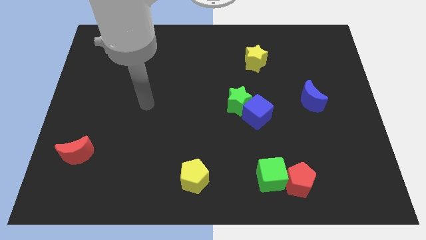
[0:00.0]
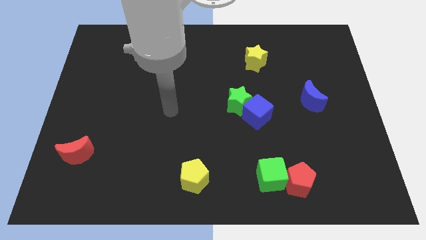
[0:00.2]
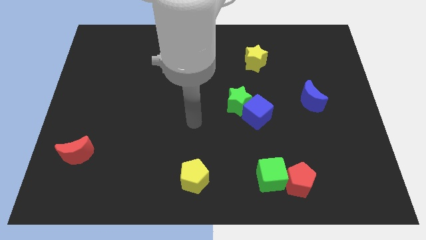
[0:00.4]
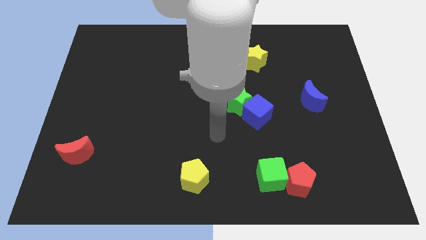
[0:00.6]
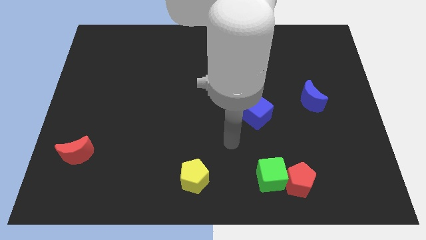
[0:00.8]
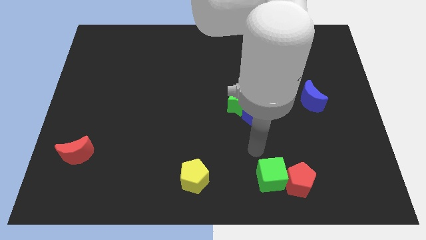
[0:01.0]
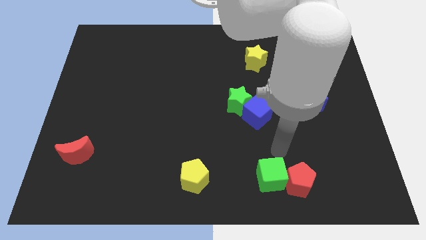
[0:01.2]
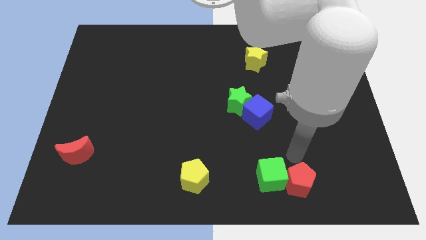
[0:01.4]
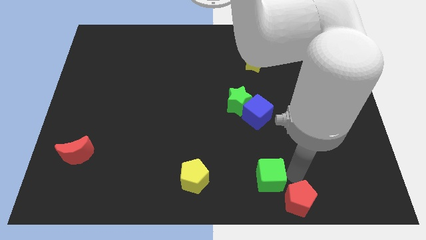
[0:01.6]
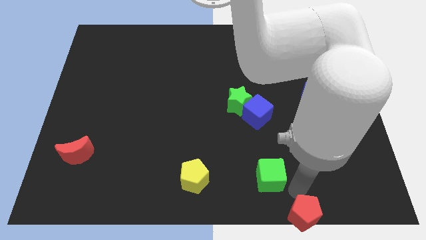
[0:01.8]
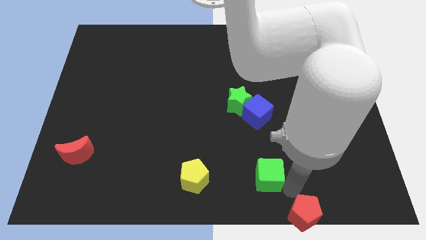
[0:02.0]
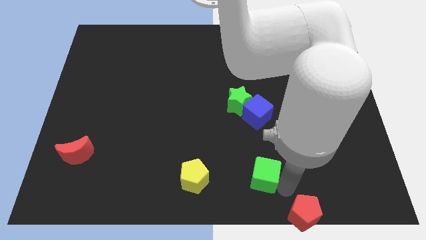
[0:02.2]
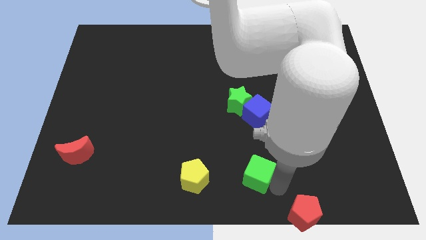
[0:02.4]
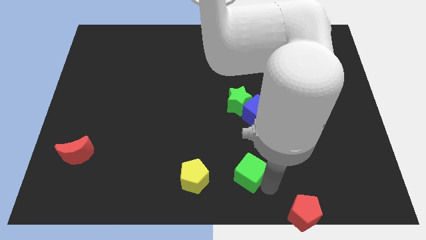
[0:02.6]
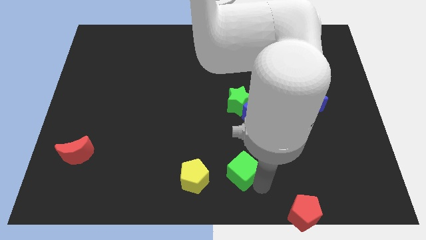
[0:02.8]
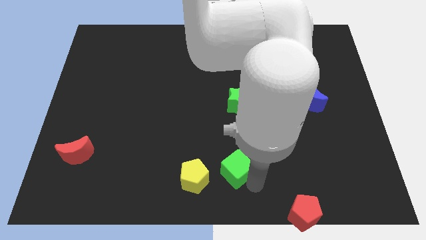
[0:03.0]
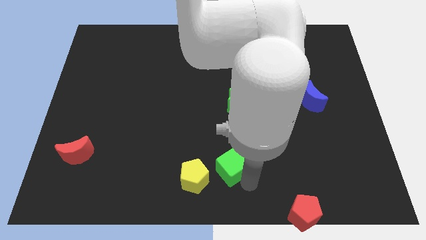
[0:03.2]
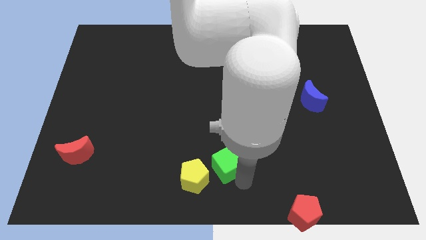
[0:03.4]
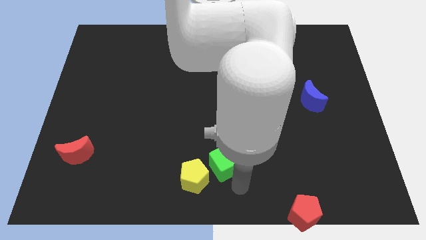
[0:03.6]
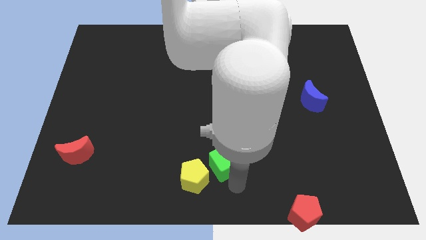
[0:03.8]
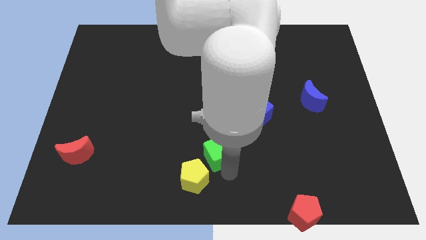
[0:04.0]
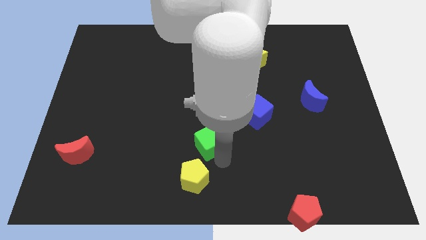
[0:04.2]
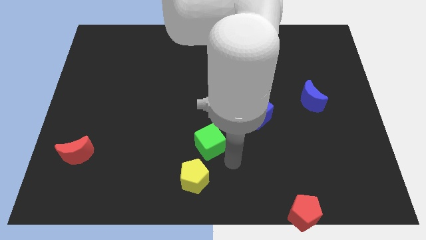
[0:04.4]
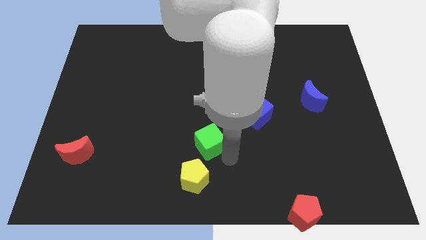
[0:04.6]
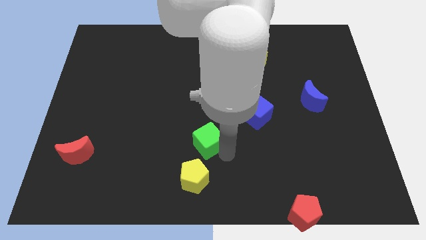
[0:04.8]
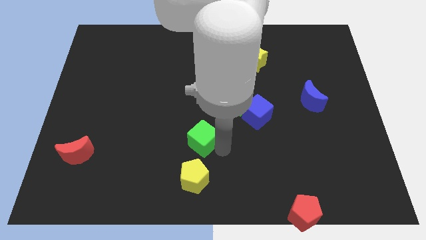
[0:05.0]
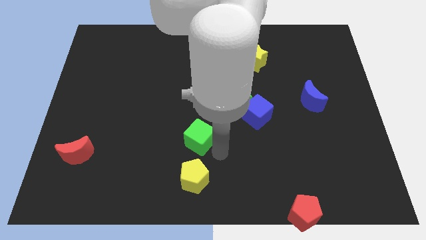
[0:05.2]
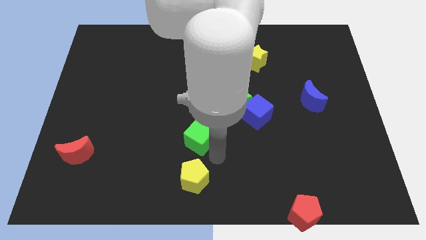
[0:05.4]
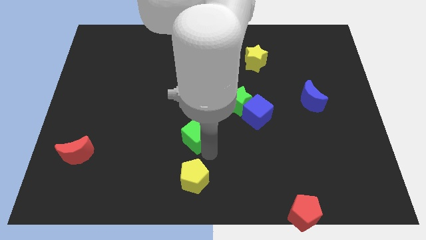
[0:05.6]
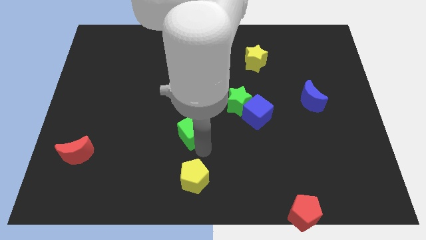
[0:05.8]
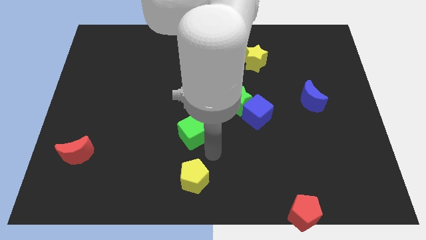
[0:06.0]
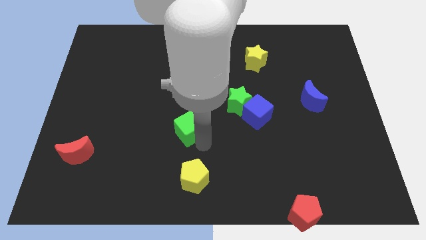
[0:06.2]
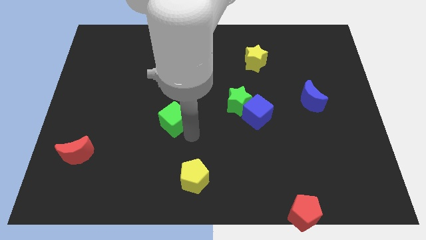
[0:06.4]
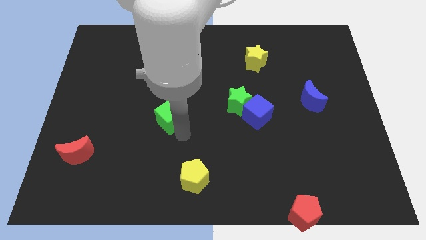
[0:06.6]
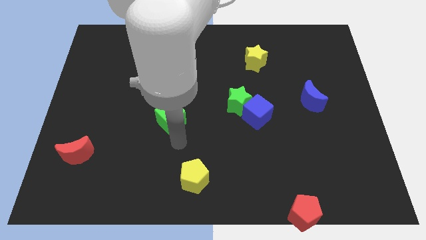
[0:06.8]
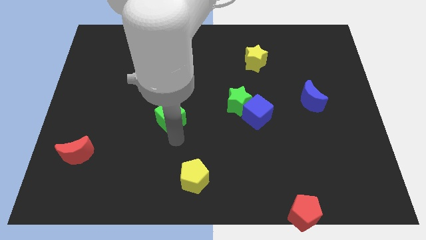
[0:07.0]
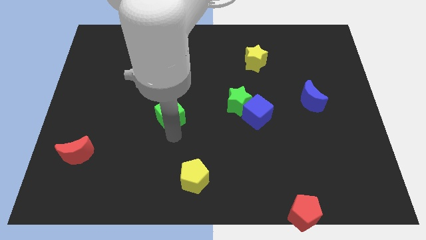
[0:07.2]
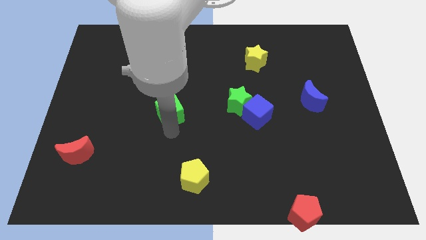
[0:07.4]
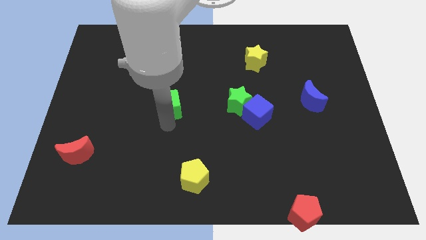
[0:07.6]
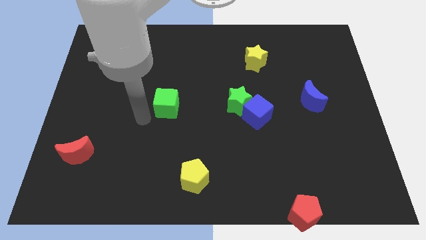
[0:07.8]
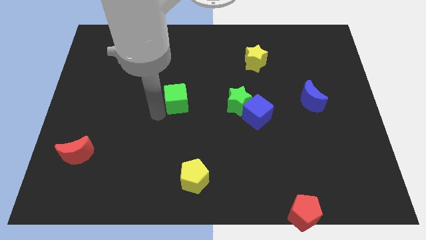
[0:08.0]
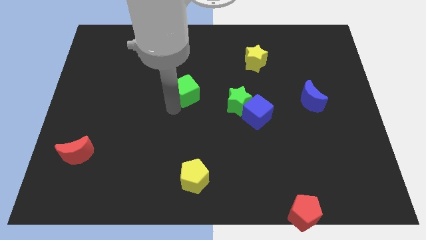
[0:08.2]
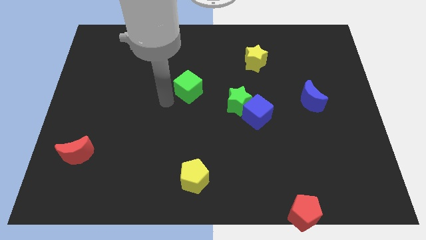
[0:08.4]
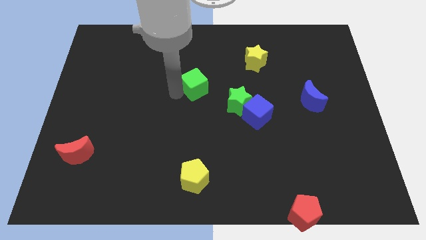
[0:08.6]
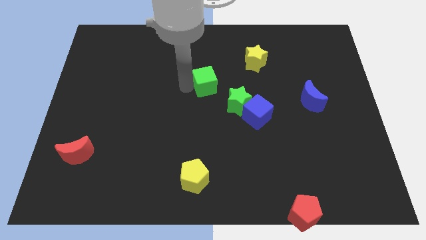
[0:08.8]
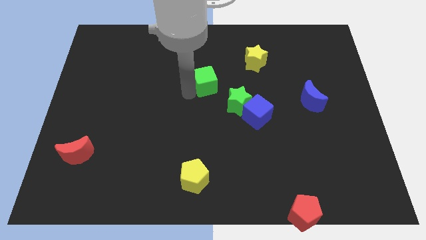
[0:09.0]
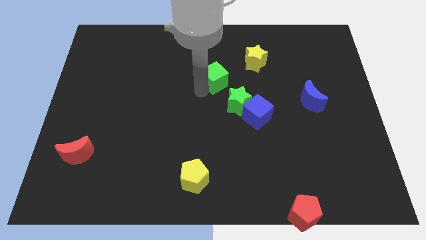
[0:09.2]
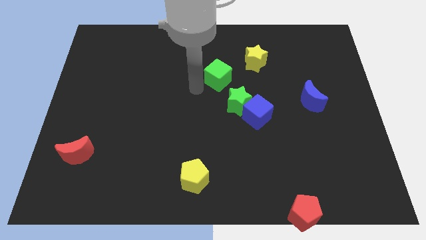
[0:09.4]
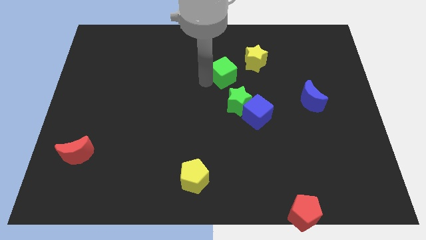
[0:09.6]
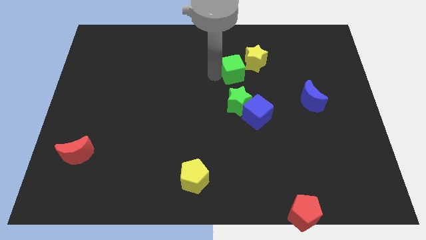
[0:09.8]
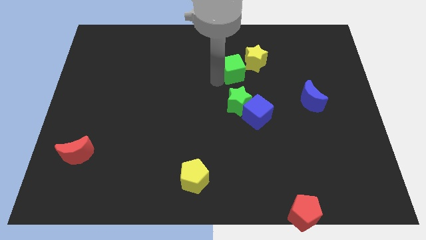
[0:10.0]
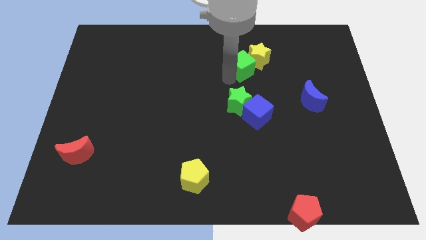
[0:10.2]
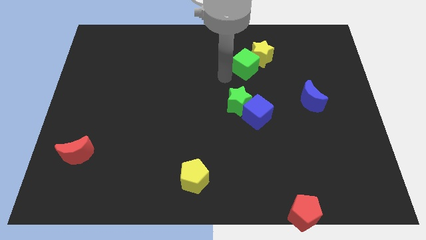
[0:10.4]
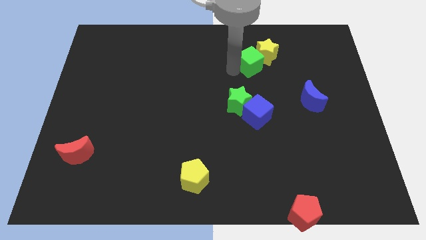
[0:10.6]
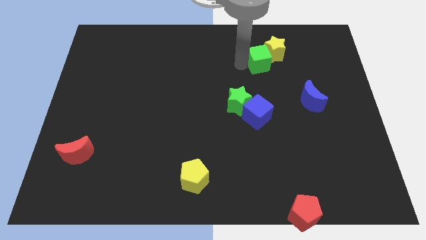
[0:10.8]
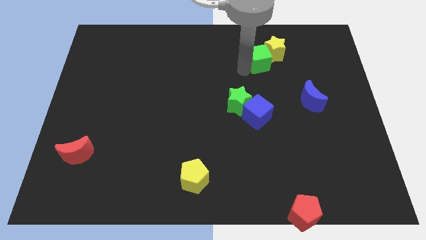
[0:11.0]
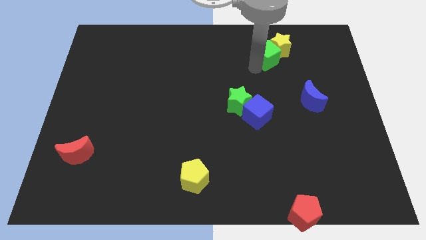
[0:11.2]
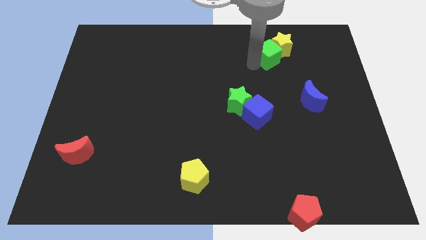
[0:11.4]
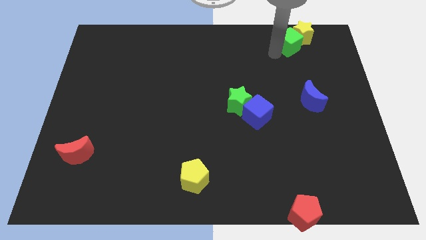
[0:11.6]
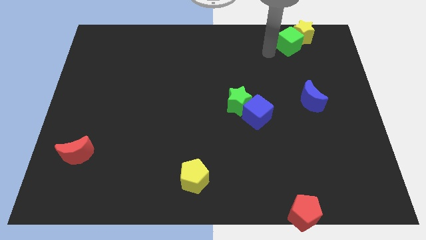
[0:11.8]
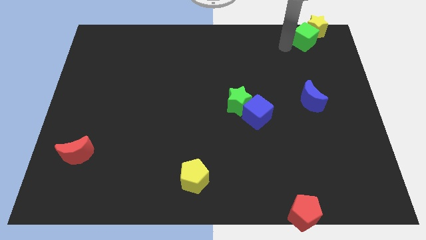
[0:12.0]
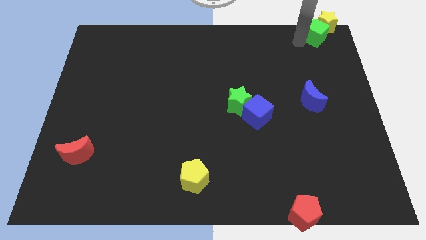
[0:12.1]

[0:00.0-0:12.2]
move the green cube to the top right corner
